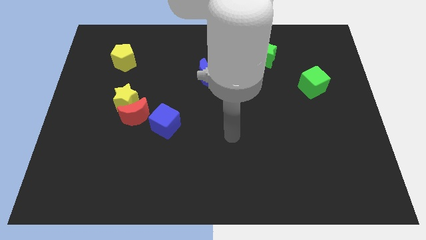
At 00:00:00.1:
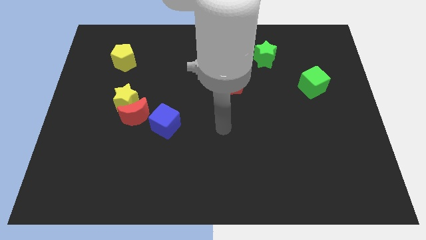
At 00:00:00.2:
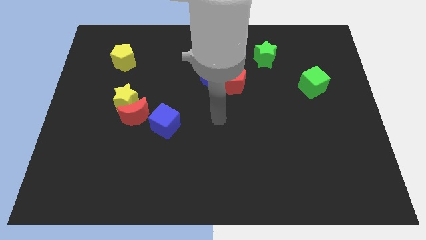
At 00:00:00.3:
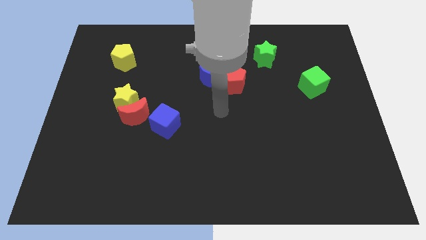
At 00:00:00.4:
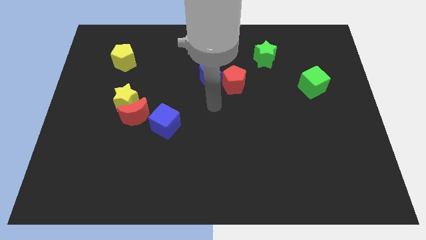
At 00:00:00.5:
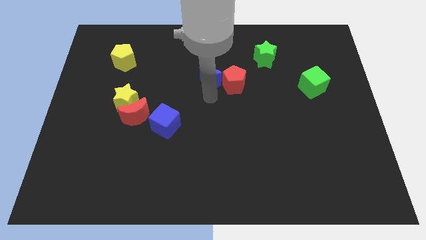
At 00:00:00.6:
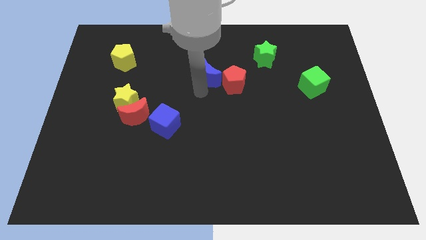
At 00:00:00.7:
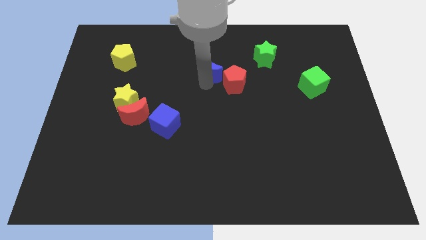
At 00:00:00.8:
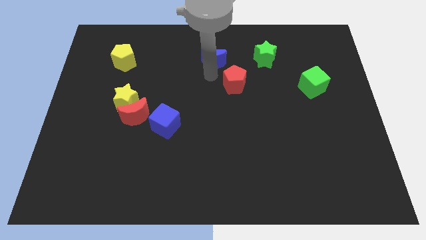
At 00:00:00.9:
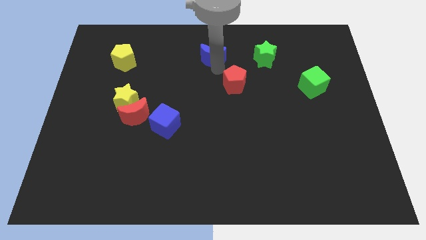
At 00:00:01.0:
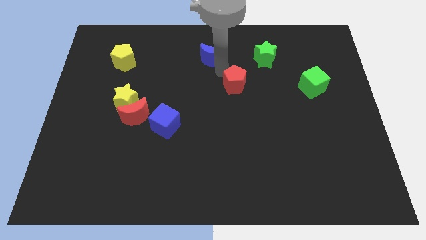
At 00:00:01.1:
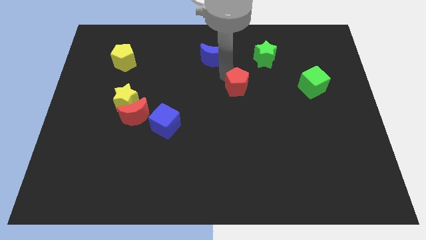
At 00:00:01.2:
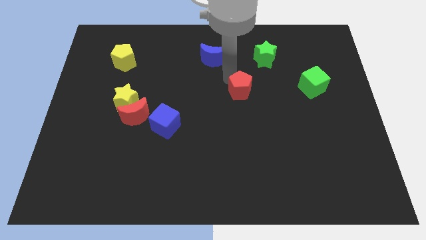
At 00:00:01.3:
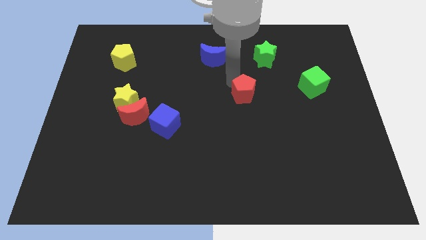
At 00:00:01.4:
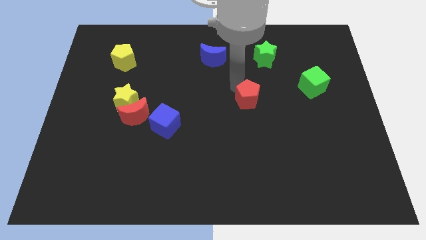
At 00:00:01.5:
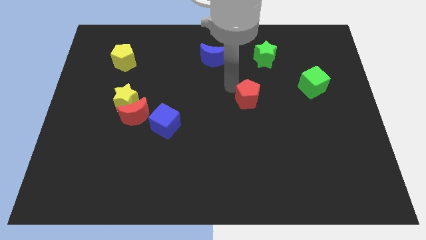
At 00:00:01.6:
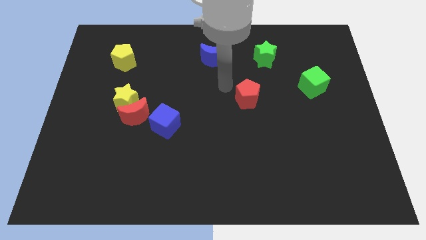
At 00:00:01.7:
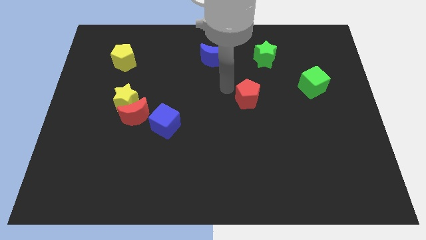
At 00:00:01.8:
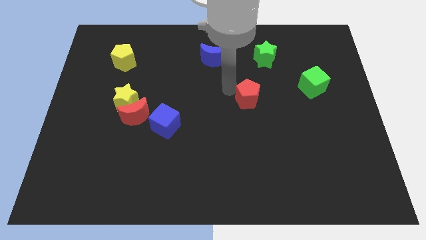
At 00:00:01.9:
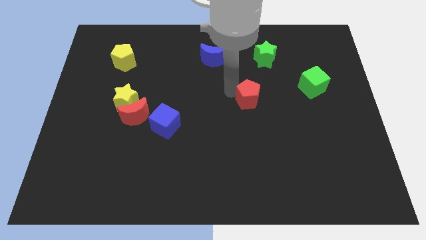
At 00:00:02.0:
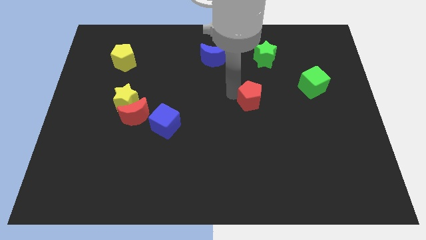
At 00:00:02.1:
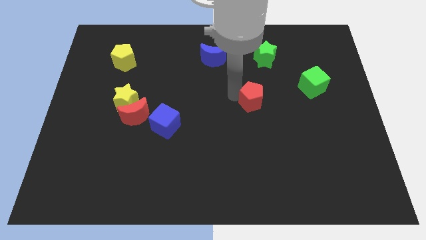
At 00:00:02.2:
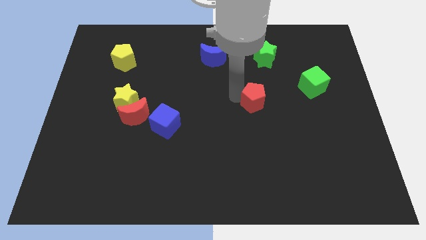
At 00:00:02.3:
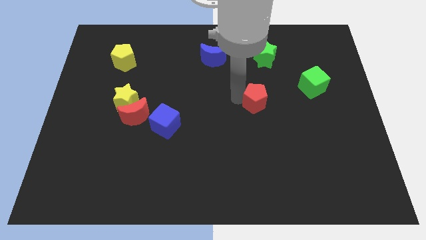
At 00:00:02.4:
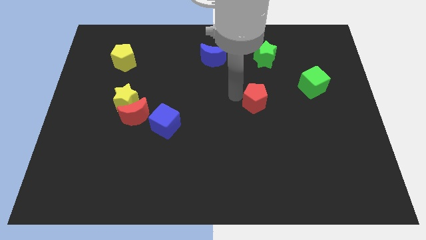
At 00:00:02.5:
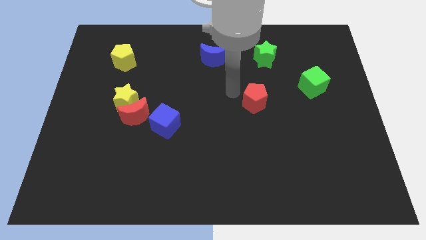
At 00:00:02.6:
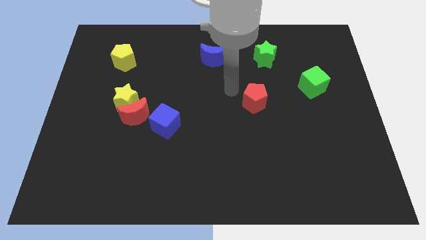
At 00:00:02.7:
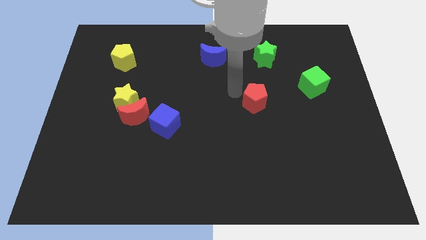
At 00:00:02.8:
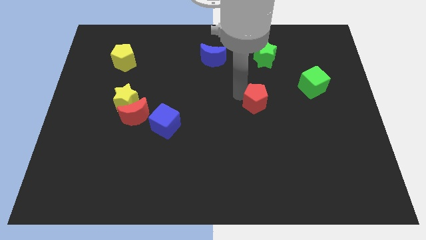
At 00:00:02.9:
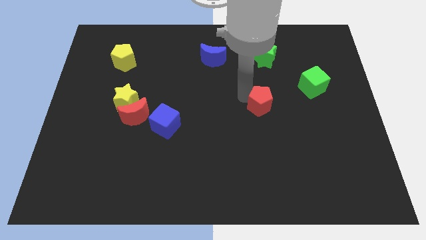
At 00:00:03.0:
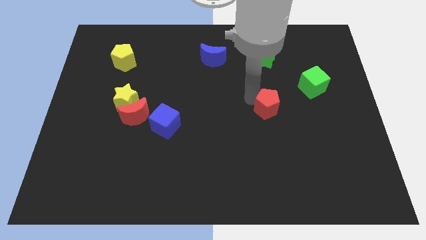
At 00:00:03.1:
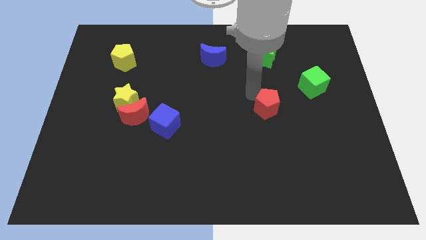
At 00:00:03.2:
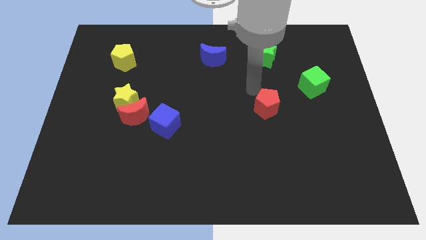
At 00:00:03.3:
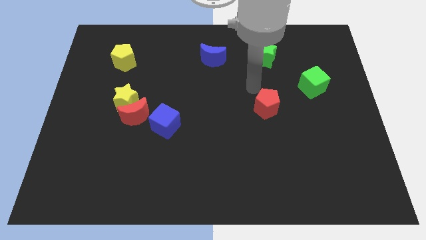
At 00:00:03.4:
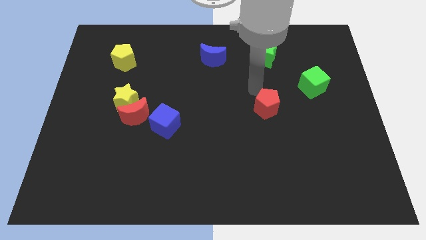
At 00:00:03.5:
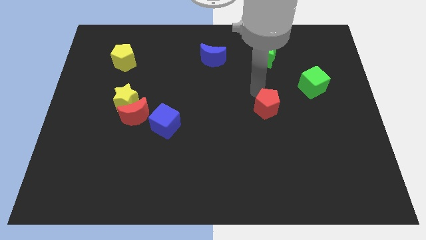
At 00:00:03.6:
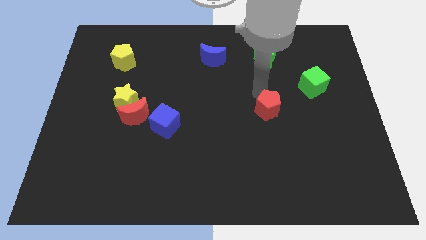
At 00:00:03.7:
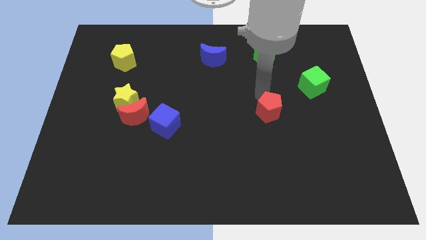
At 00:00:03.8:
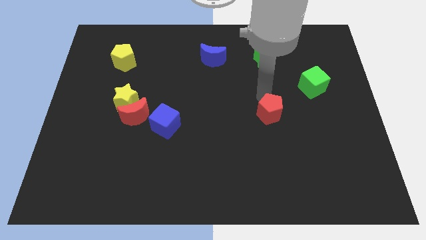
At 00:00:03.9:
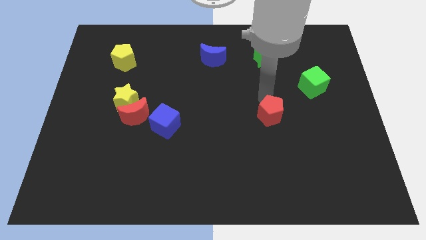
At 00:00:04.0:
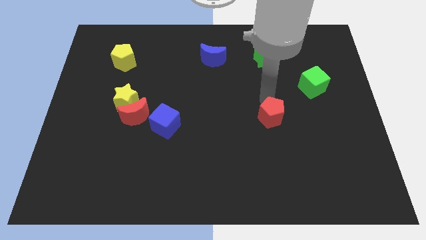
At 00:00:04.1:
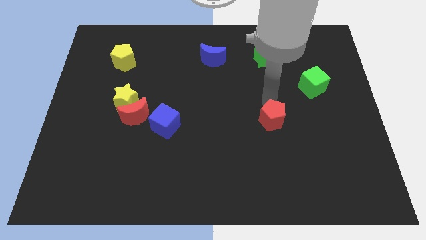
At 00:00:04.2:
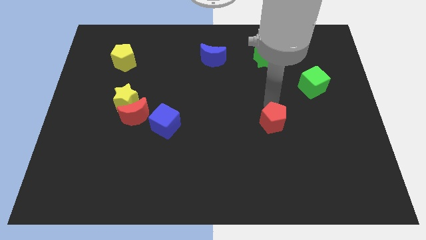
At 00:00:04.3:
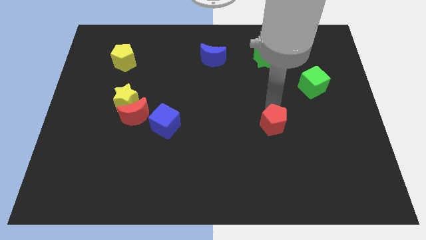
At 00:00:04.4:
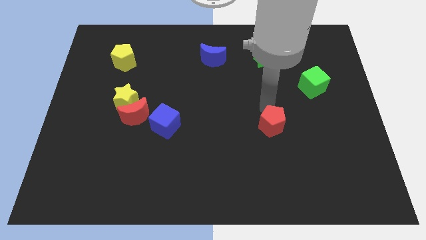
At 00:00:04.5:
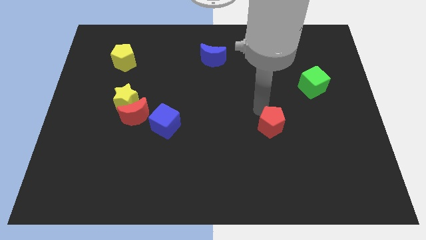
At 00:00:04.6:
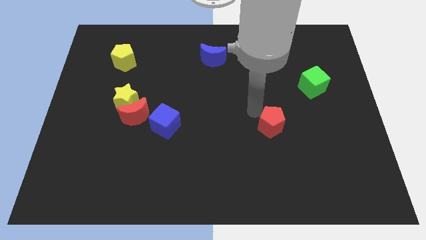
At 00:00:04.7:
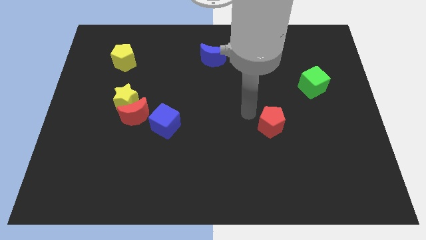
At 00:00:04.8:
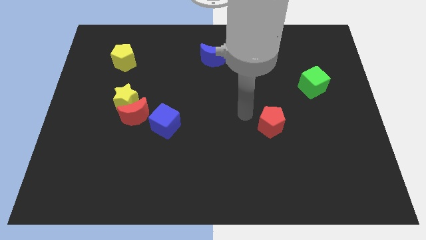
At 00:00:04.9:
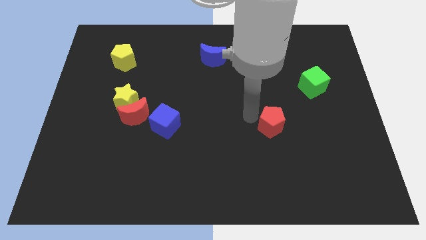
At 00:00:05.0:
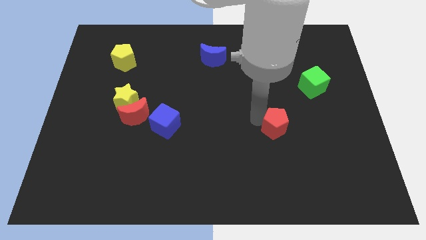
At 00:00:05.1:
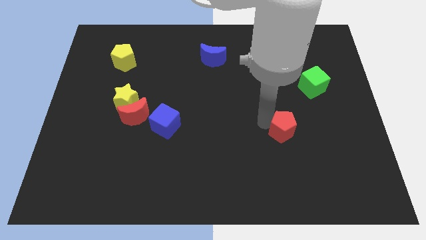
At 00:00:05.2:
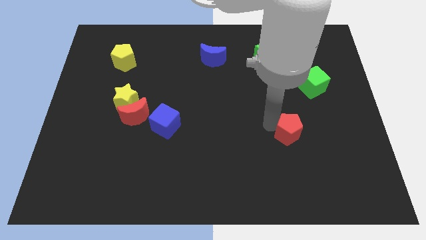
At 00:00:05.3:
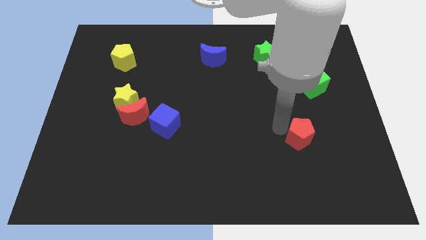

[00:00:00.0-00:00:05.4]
slide the red pentagon downwards and right

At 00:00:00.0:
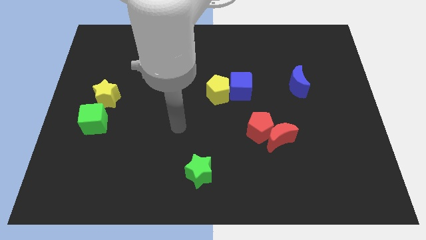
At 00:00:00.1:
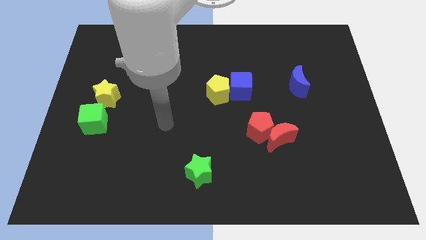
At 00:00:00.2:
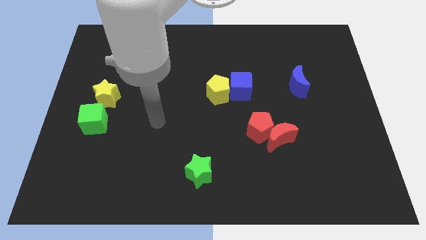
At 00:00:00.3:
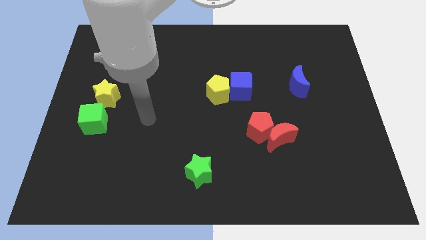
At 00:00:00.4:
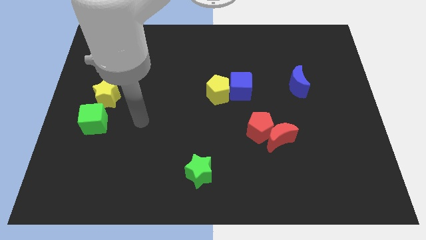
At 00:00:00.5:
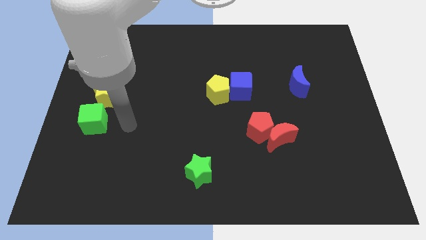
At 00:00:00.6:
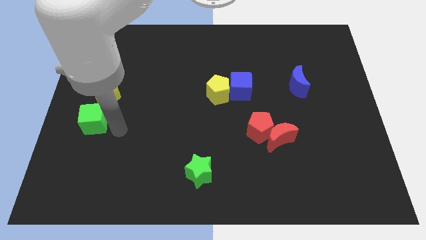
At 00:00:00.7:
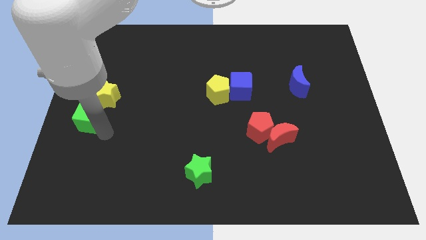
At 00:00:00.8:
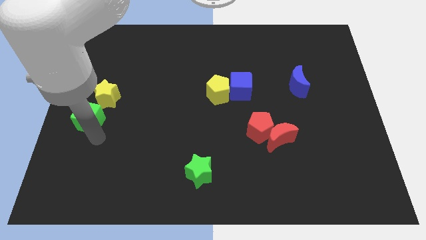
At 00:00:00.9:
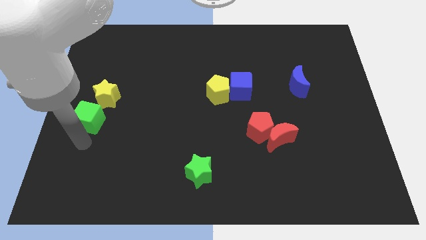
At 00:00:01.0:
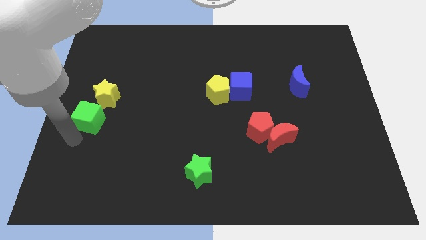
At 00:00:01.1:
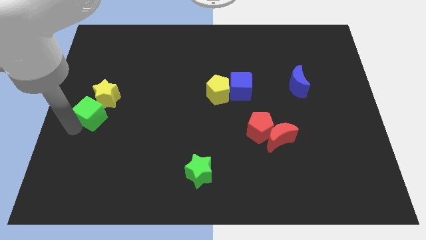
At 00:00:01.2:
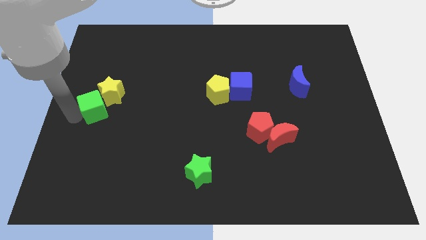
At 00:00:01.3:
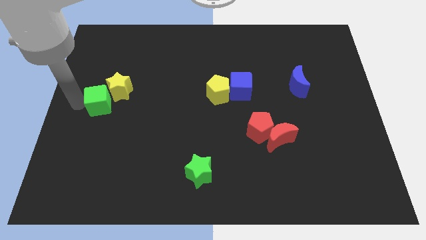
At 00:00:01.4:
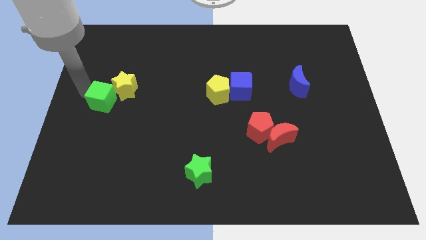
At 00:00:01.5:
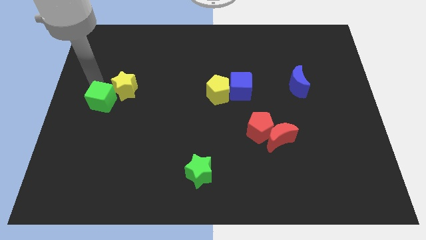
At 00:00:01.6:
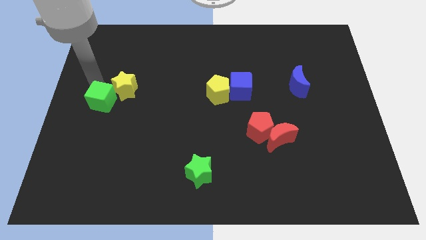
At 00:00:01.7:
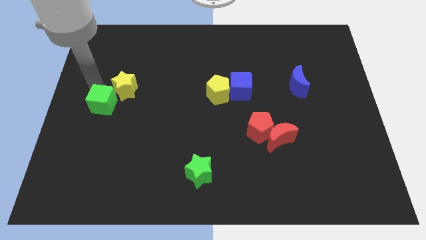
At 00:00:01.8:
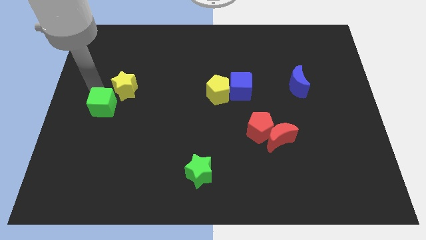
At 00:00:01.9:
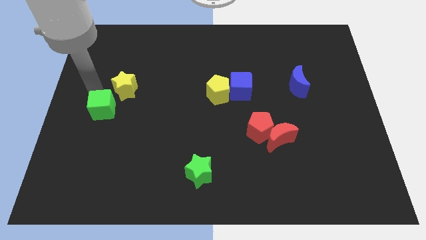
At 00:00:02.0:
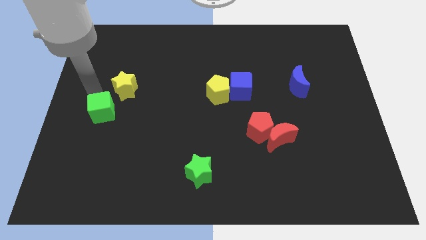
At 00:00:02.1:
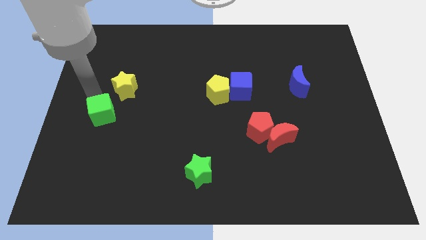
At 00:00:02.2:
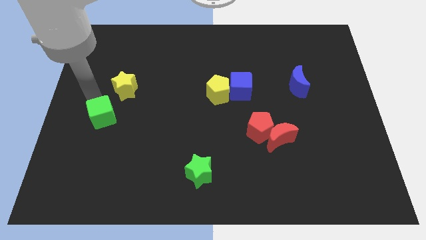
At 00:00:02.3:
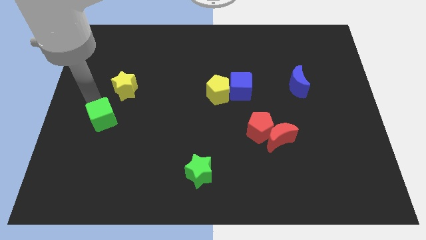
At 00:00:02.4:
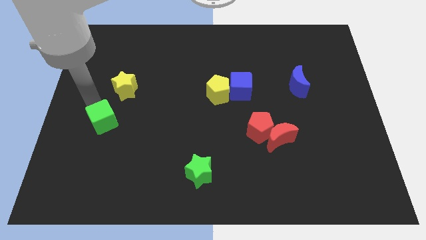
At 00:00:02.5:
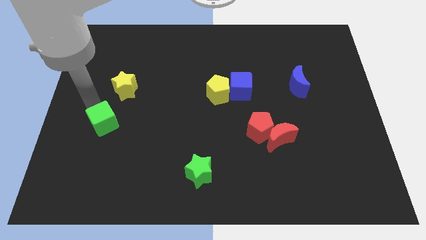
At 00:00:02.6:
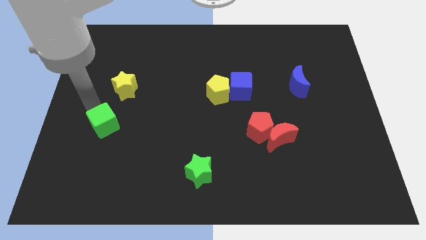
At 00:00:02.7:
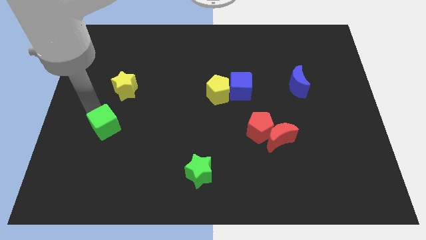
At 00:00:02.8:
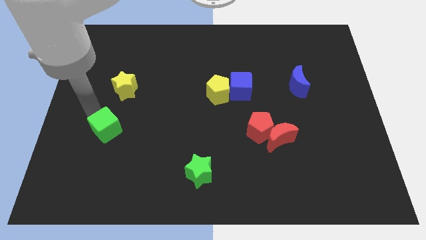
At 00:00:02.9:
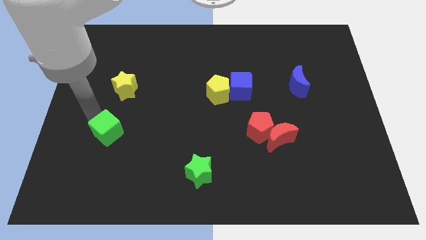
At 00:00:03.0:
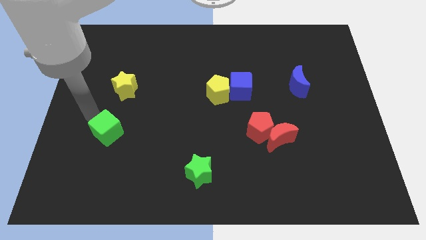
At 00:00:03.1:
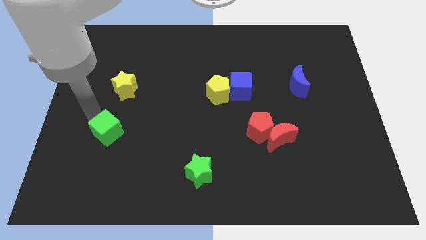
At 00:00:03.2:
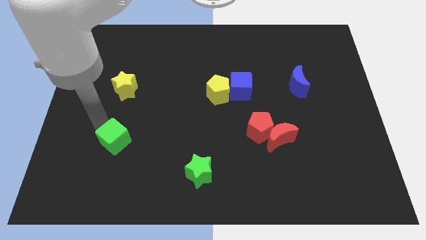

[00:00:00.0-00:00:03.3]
slightly move the green cube down and to the right
